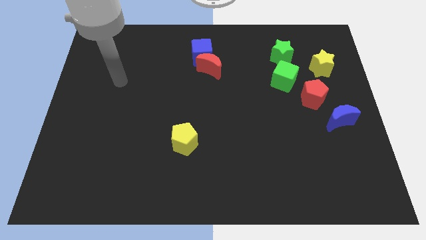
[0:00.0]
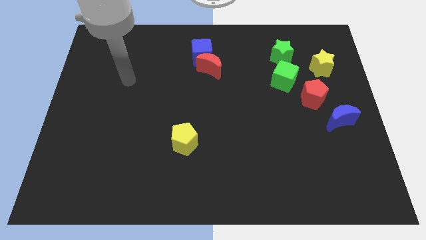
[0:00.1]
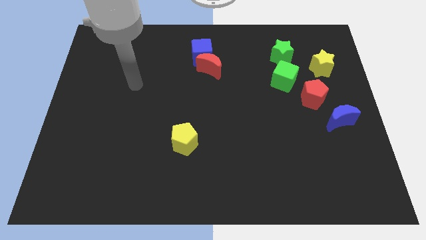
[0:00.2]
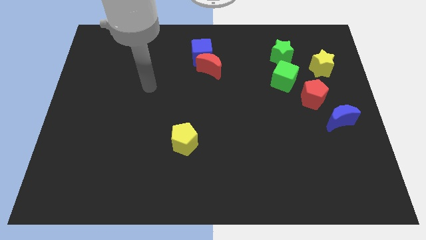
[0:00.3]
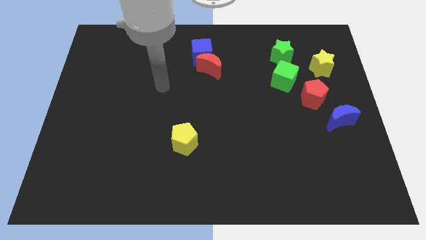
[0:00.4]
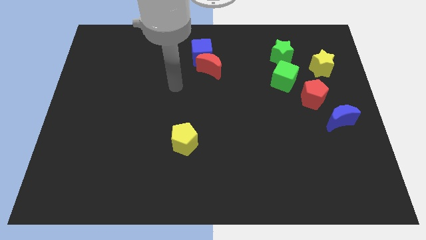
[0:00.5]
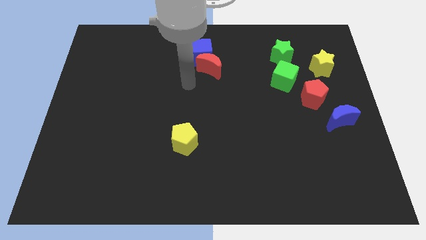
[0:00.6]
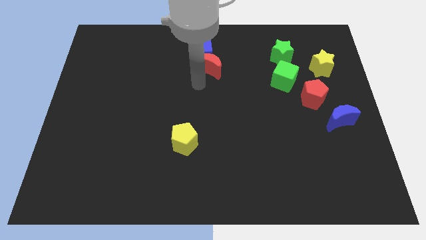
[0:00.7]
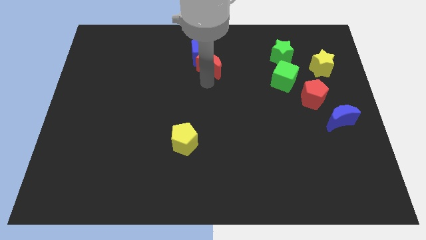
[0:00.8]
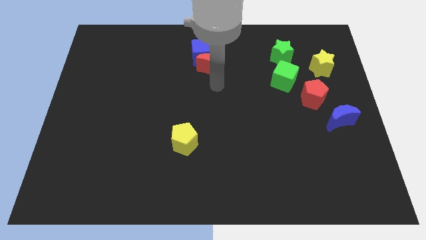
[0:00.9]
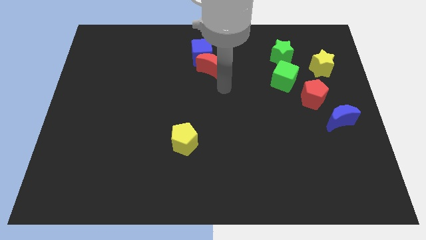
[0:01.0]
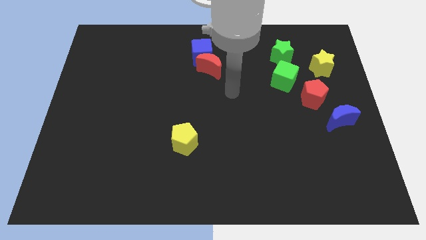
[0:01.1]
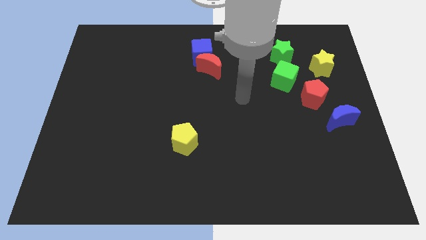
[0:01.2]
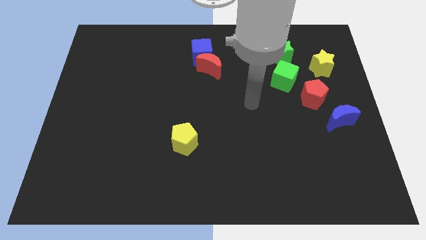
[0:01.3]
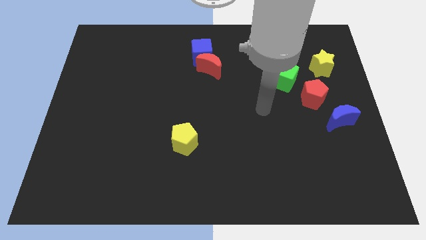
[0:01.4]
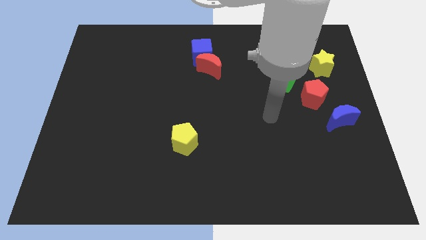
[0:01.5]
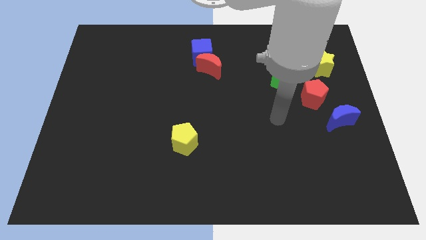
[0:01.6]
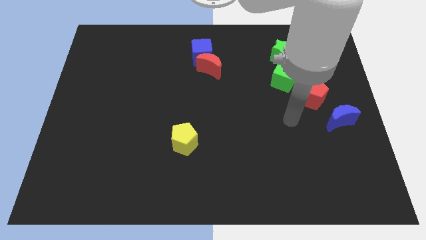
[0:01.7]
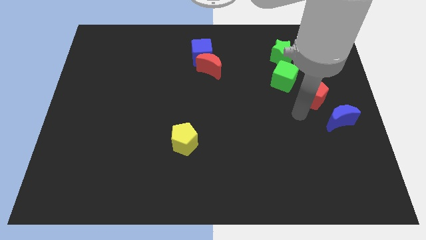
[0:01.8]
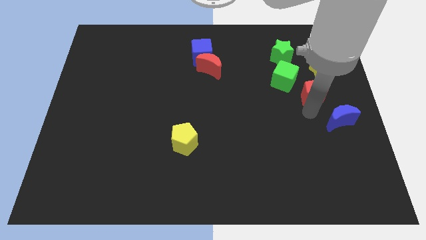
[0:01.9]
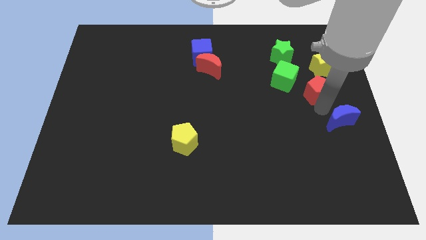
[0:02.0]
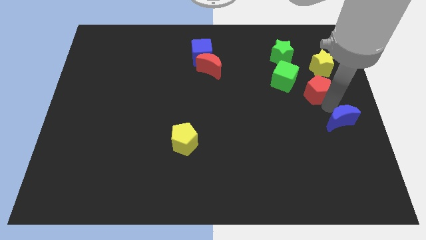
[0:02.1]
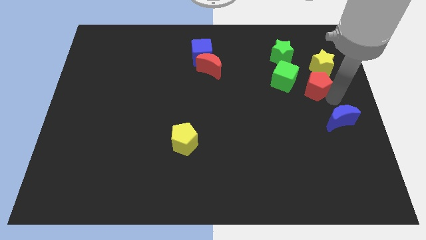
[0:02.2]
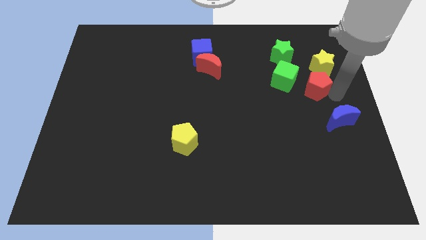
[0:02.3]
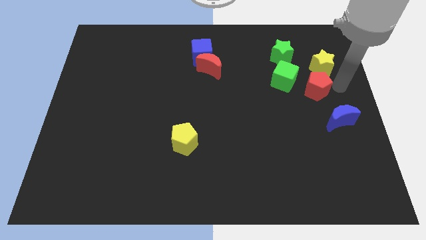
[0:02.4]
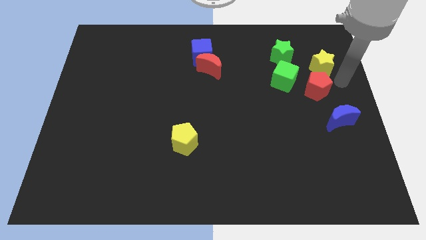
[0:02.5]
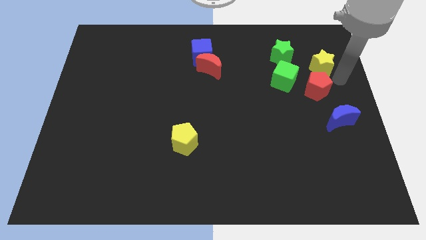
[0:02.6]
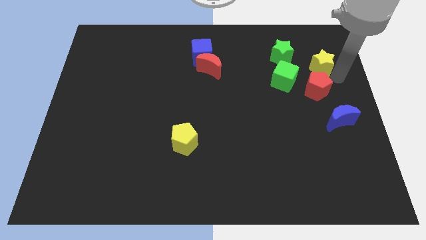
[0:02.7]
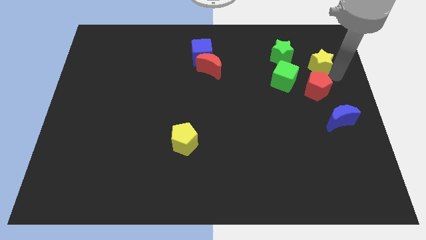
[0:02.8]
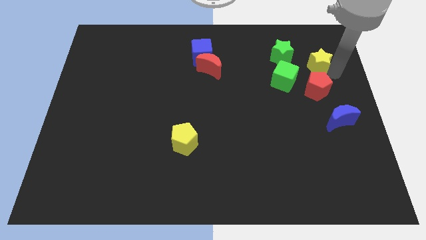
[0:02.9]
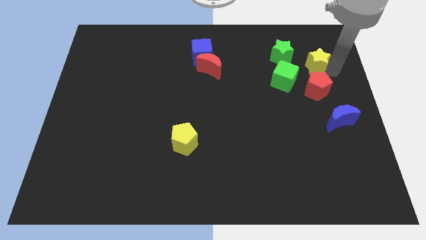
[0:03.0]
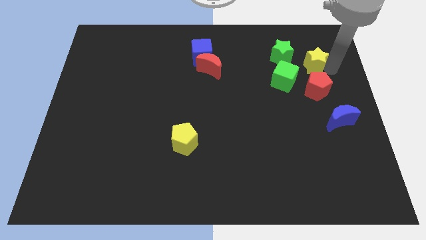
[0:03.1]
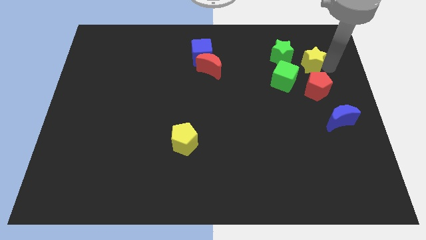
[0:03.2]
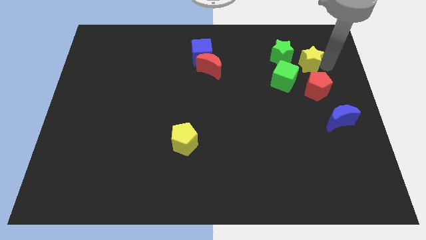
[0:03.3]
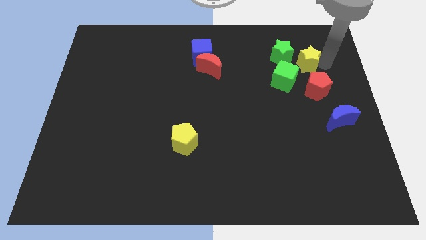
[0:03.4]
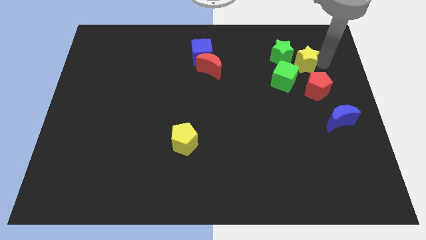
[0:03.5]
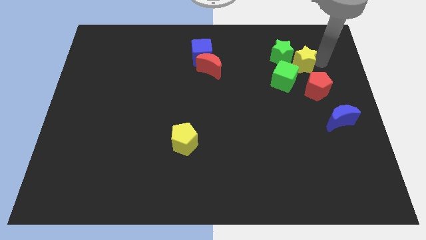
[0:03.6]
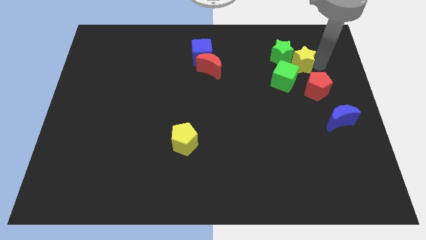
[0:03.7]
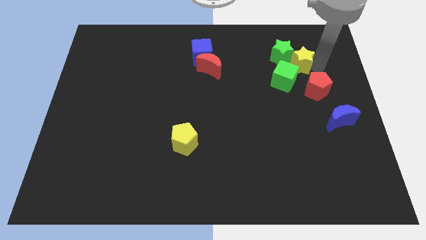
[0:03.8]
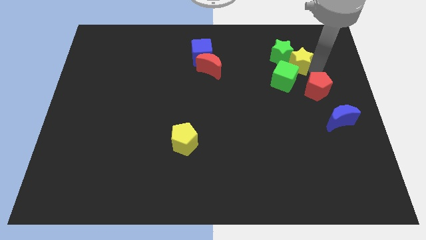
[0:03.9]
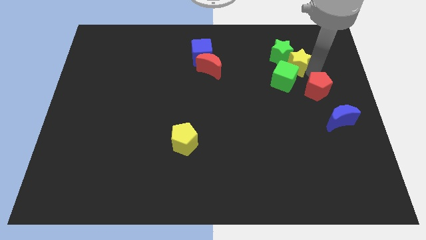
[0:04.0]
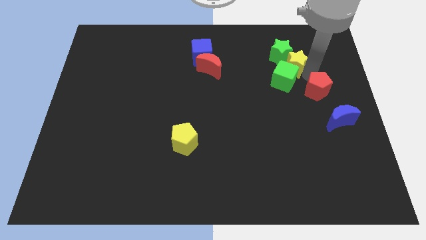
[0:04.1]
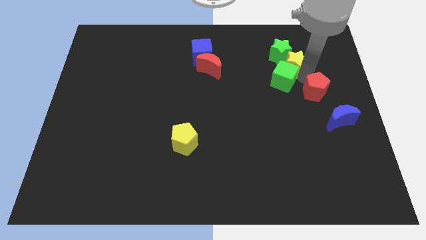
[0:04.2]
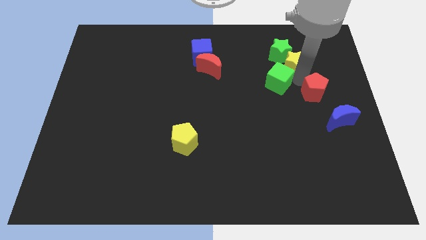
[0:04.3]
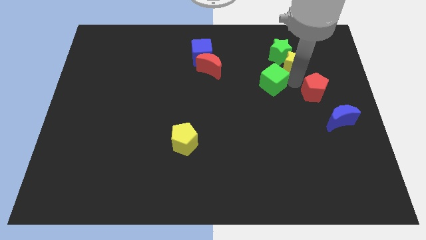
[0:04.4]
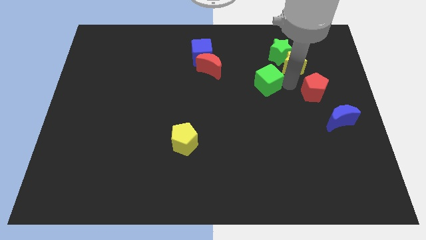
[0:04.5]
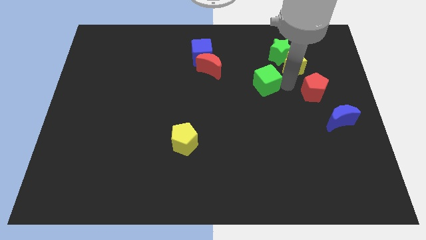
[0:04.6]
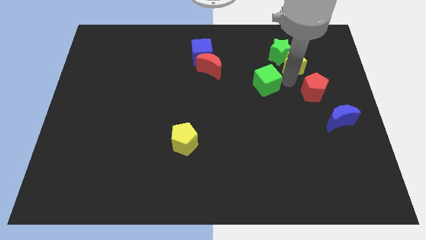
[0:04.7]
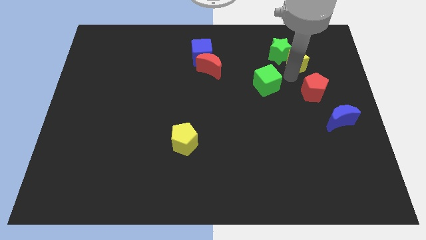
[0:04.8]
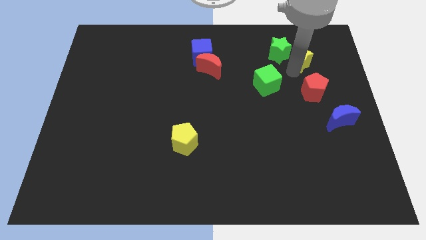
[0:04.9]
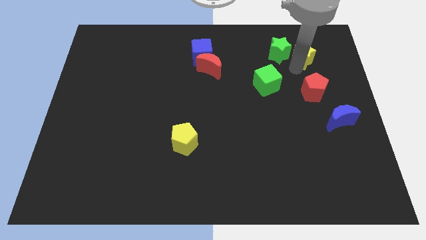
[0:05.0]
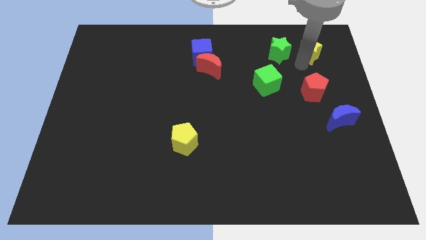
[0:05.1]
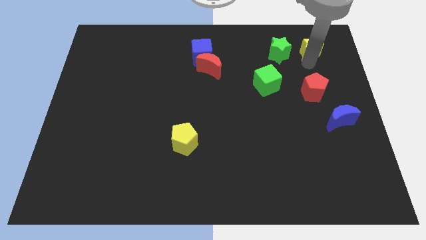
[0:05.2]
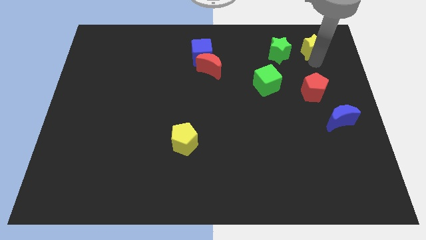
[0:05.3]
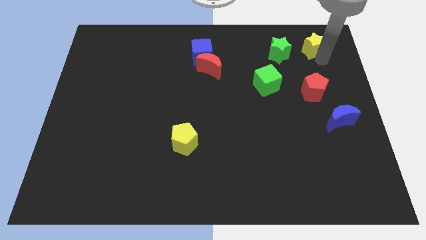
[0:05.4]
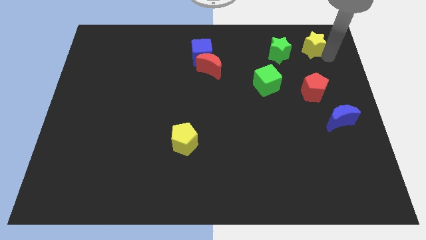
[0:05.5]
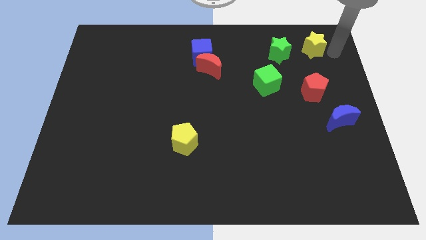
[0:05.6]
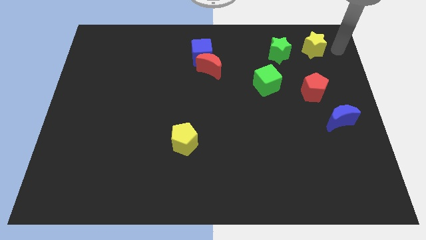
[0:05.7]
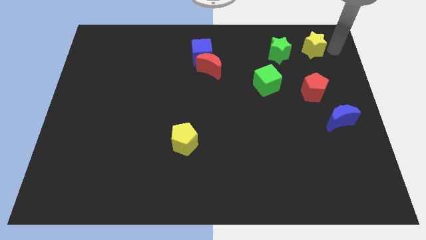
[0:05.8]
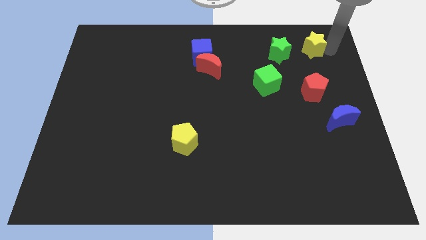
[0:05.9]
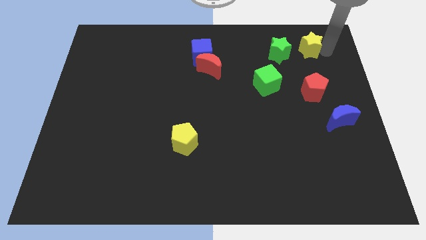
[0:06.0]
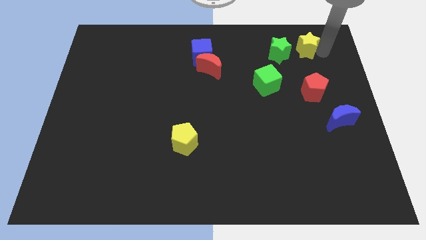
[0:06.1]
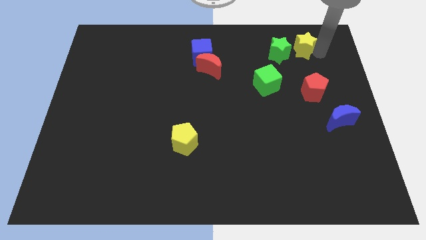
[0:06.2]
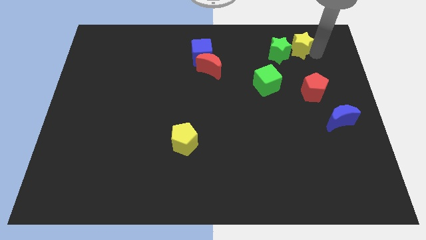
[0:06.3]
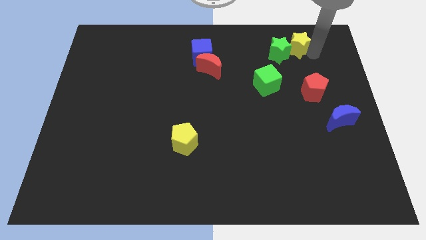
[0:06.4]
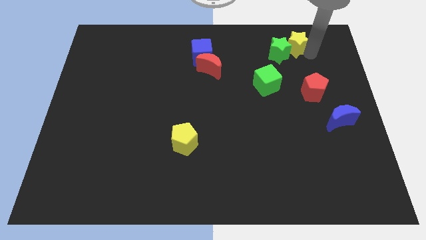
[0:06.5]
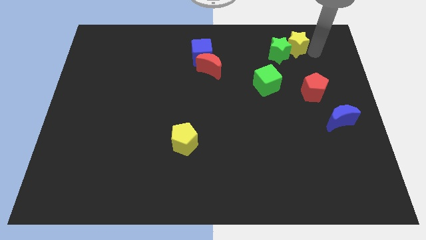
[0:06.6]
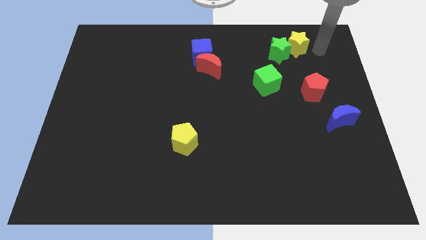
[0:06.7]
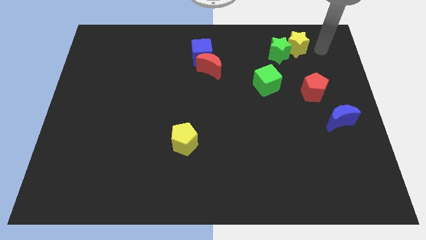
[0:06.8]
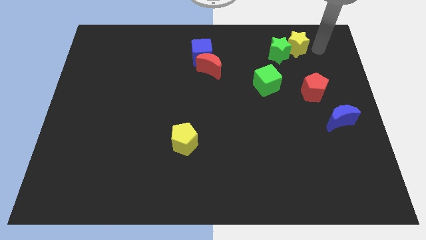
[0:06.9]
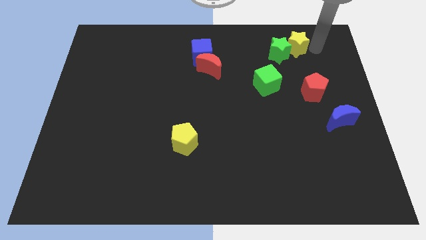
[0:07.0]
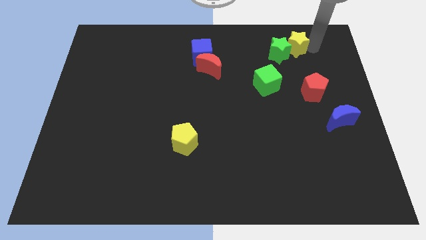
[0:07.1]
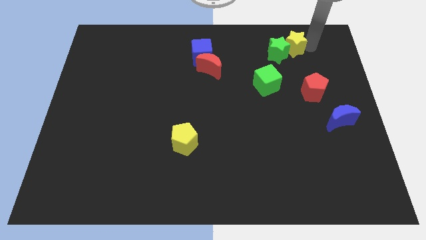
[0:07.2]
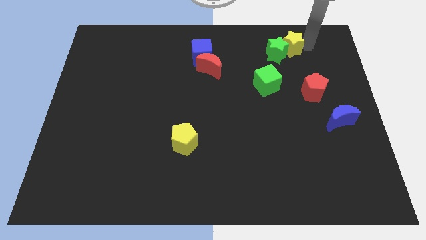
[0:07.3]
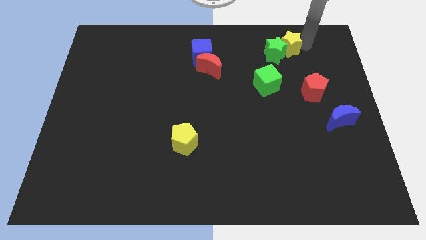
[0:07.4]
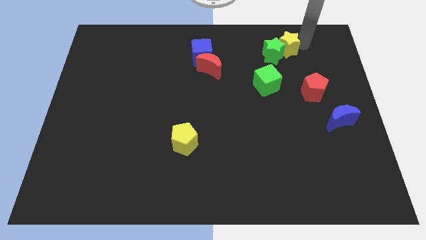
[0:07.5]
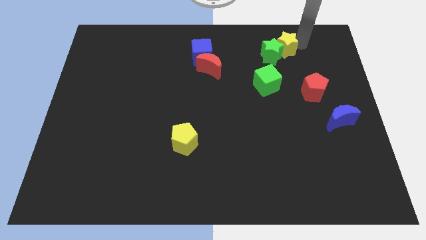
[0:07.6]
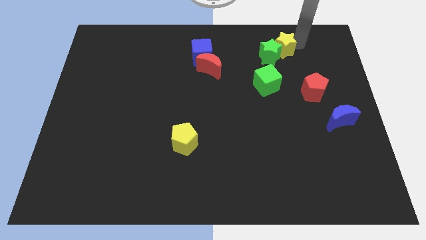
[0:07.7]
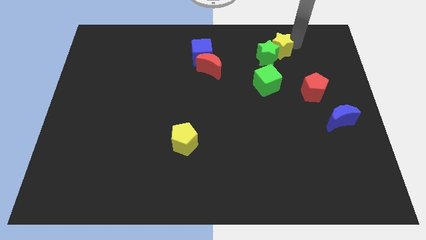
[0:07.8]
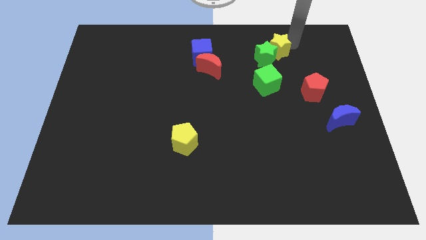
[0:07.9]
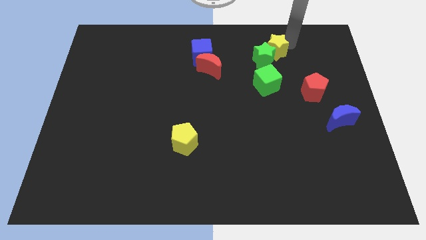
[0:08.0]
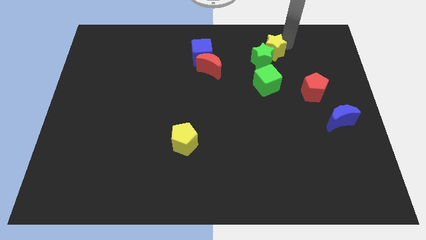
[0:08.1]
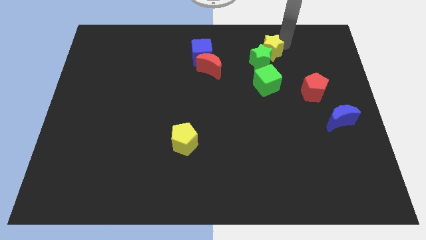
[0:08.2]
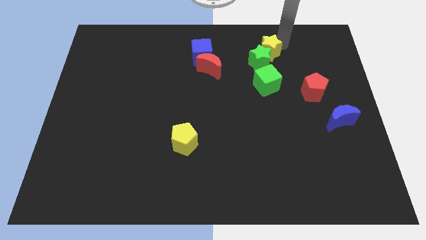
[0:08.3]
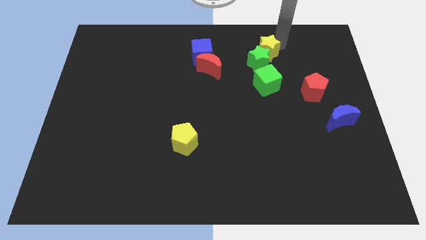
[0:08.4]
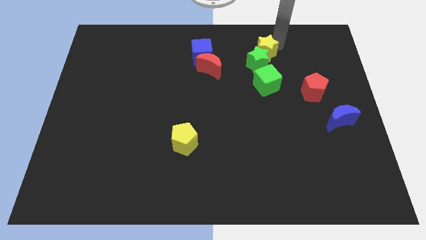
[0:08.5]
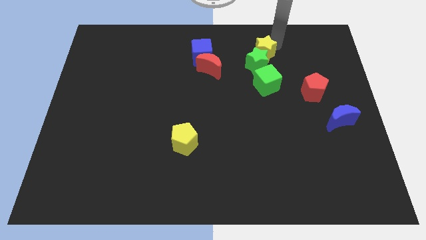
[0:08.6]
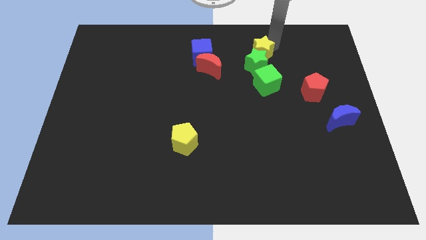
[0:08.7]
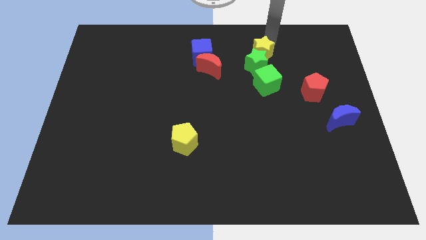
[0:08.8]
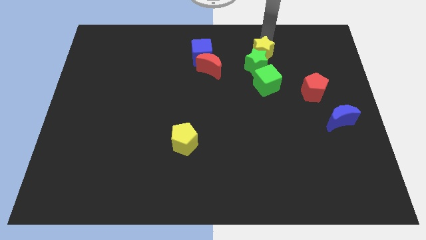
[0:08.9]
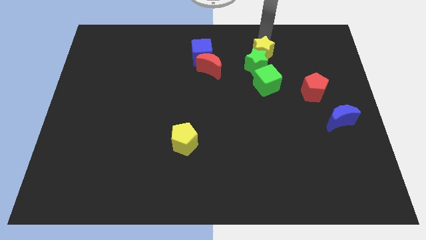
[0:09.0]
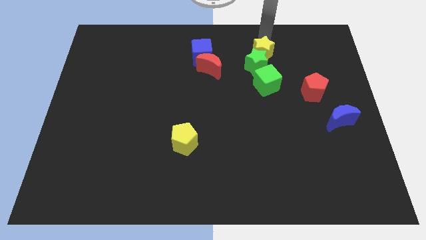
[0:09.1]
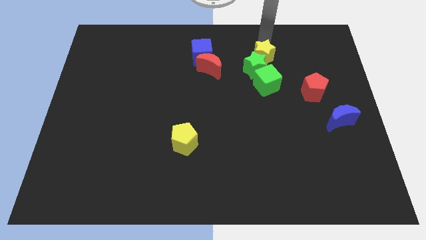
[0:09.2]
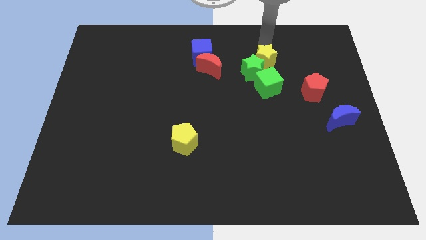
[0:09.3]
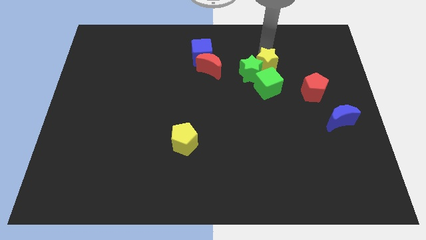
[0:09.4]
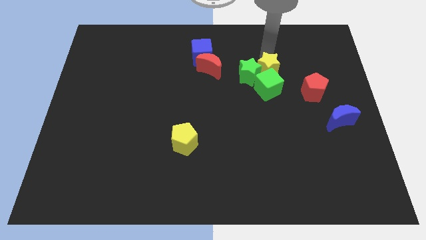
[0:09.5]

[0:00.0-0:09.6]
push the yellow star slightly diagonally downwards and left
